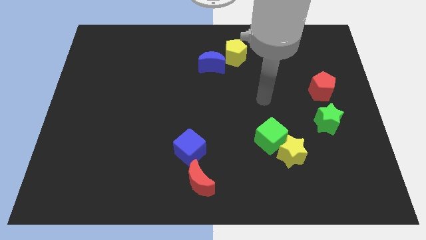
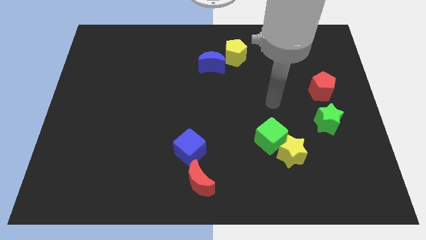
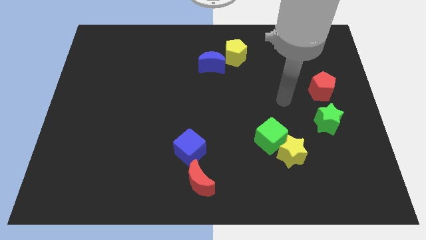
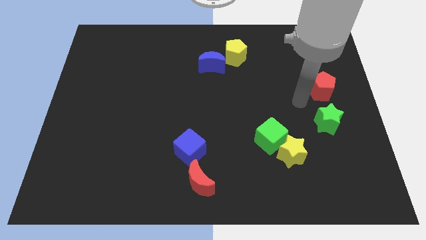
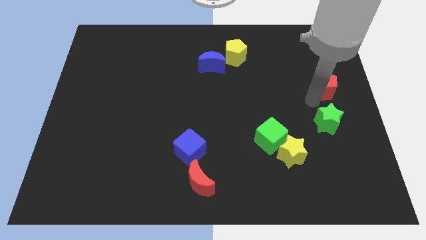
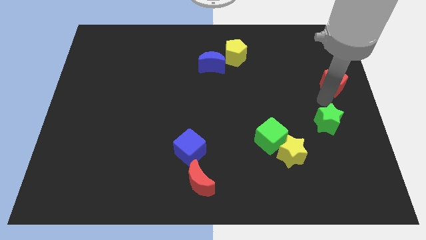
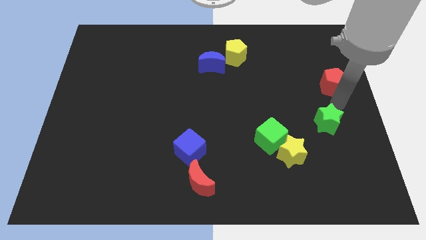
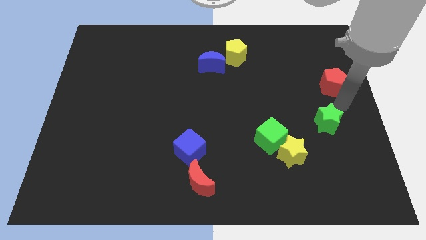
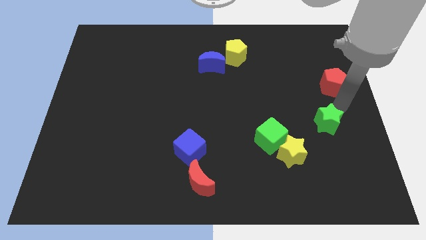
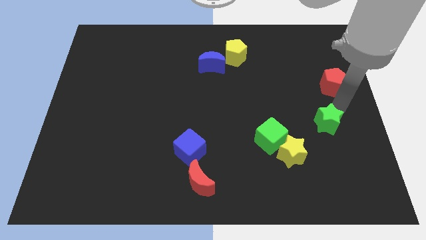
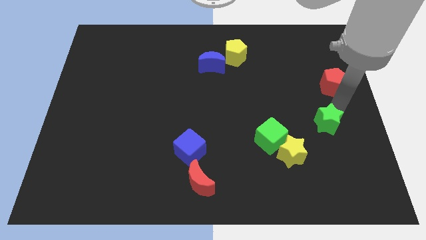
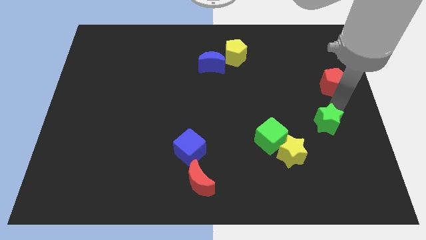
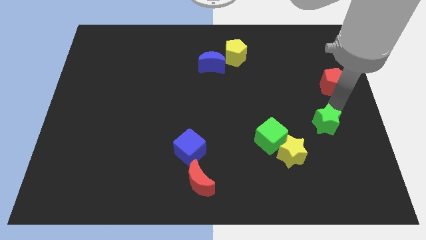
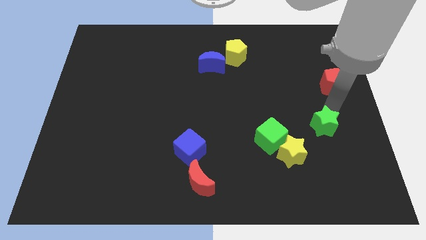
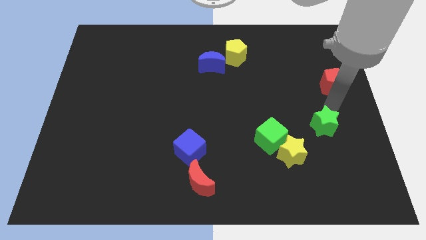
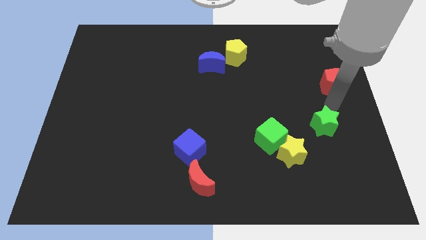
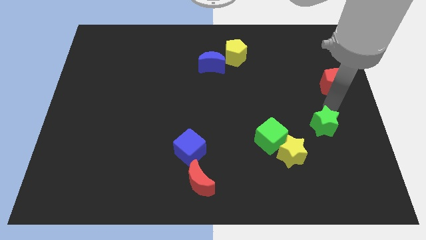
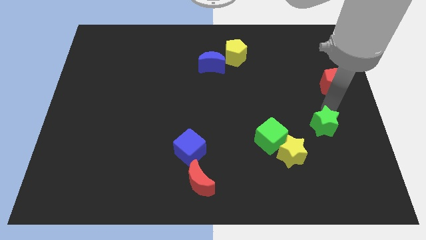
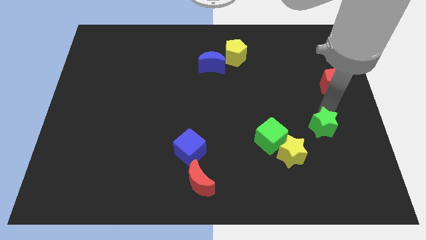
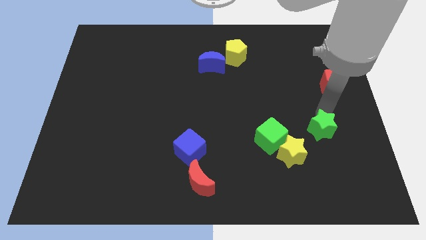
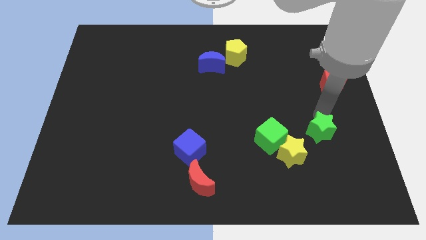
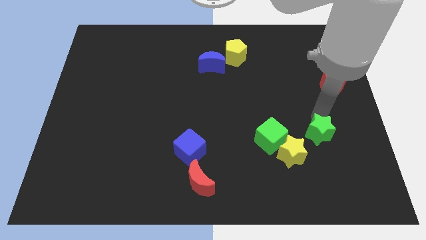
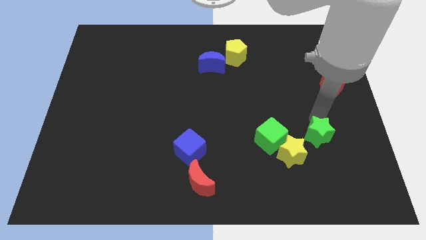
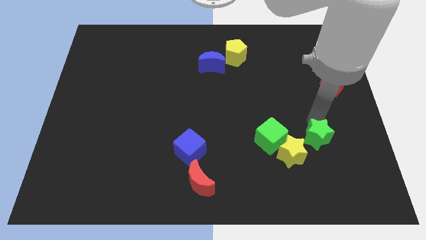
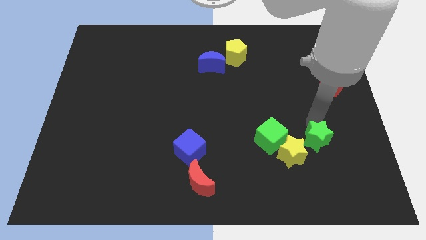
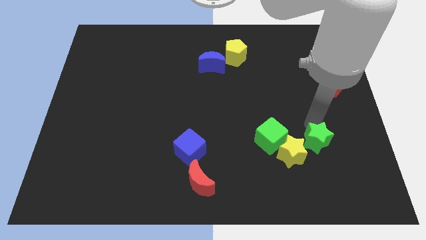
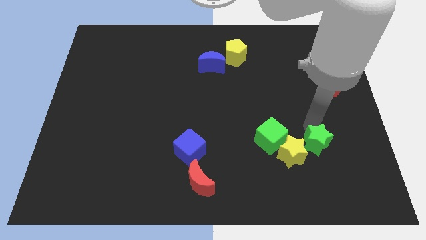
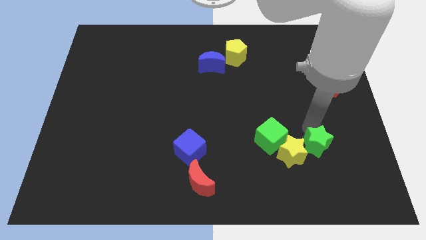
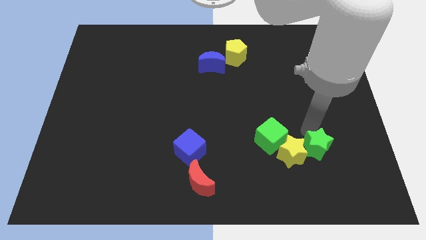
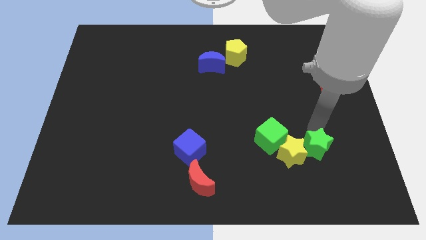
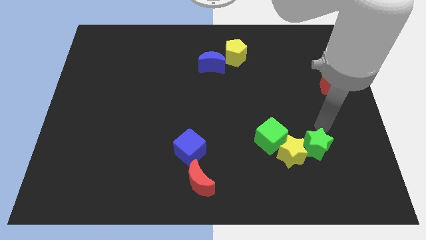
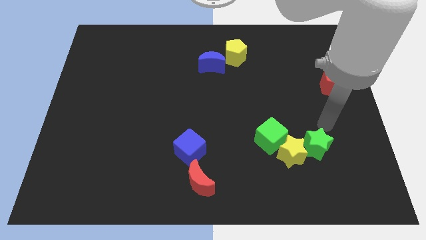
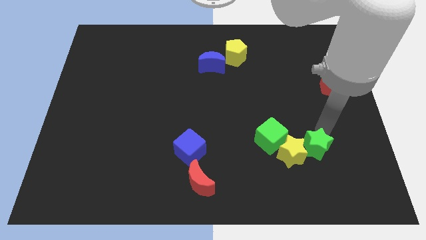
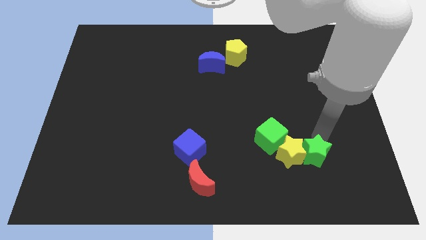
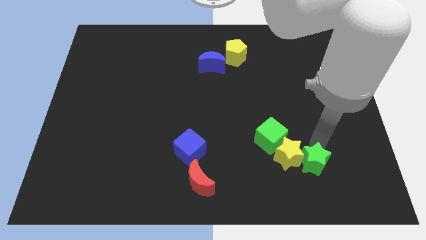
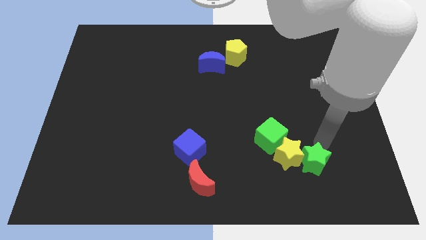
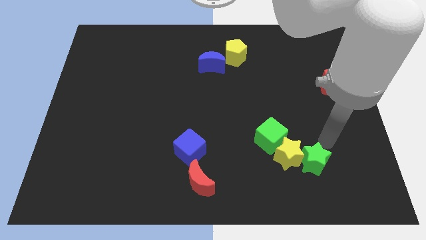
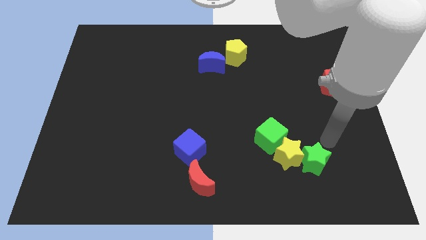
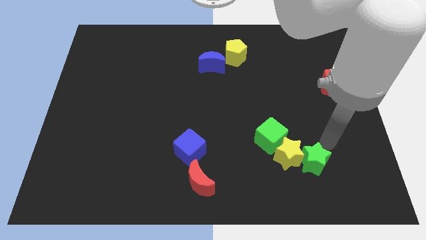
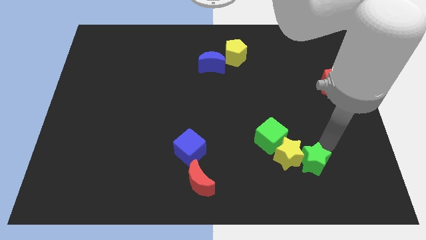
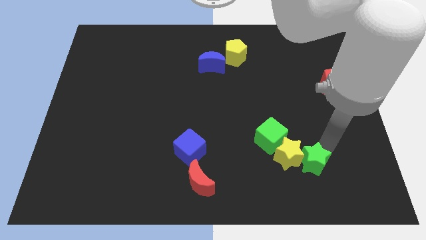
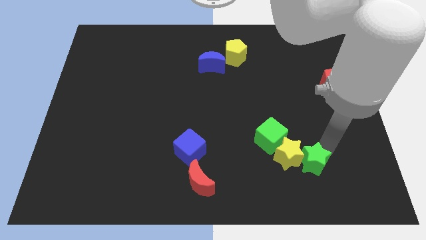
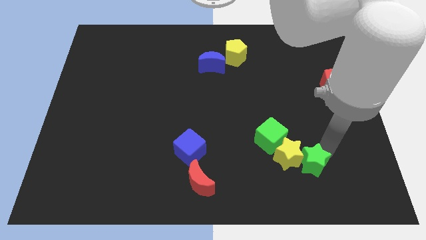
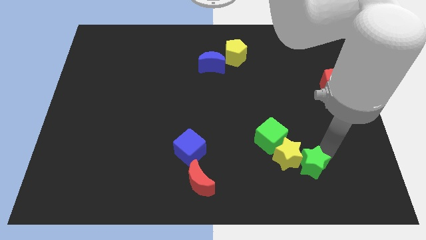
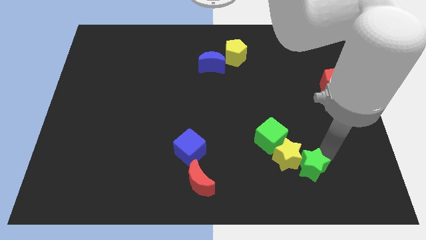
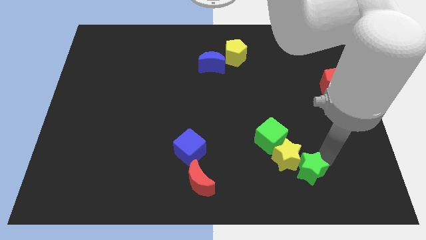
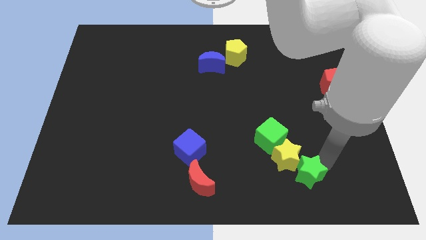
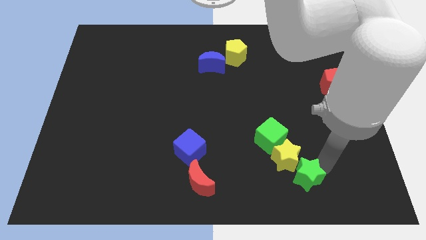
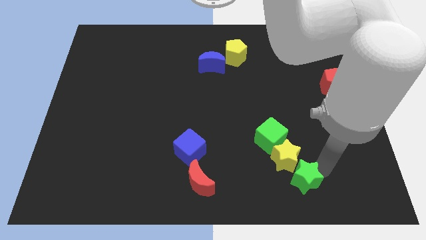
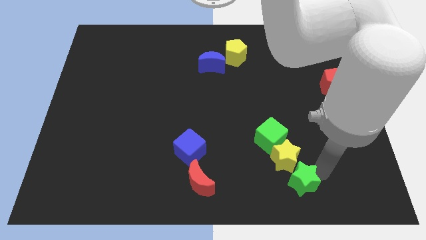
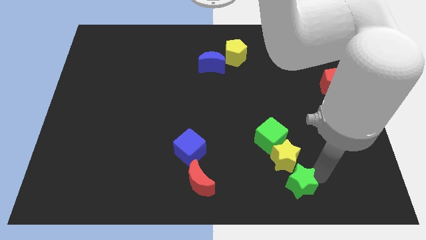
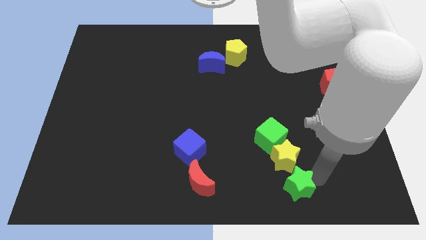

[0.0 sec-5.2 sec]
slide the green star below the green cube

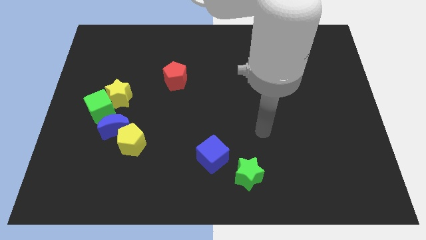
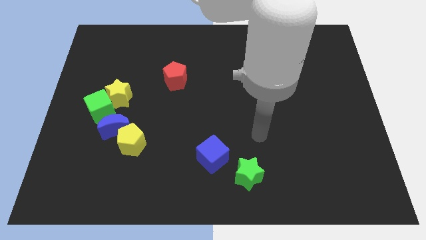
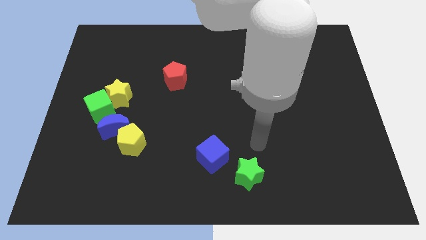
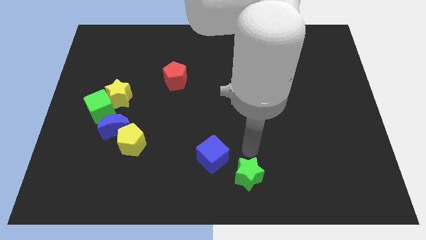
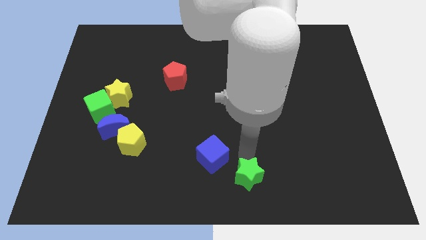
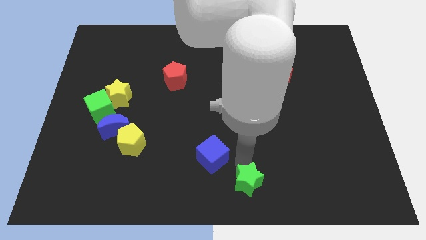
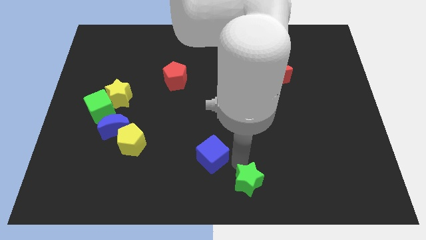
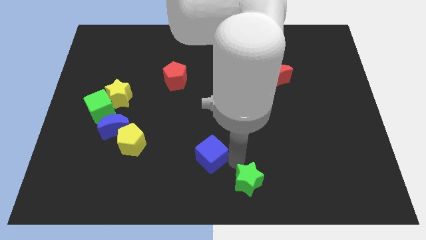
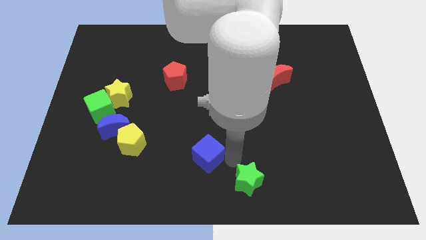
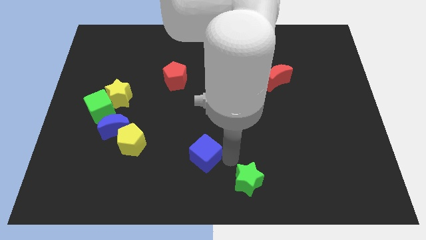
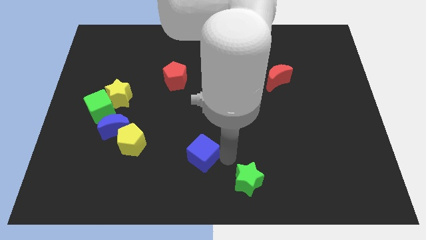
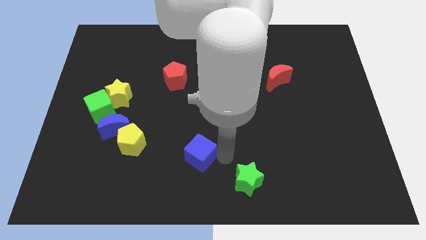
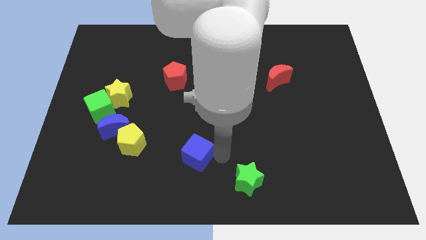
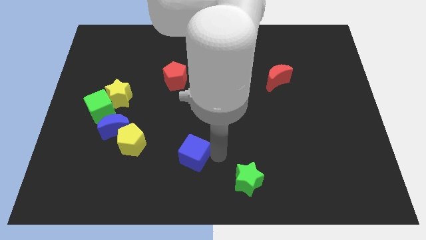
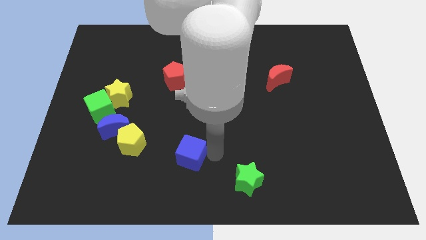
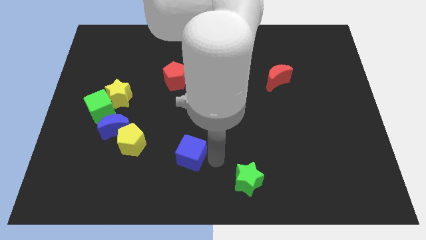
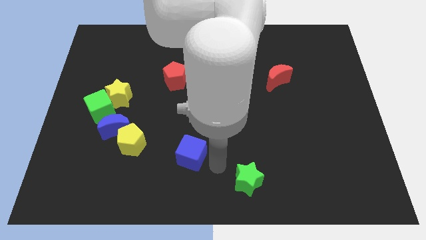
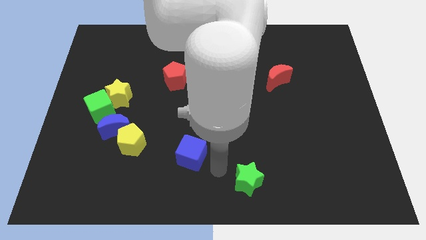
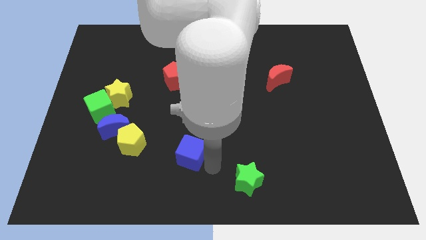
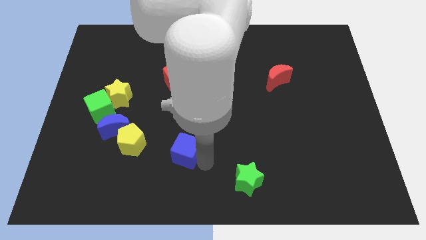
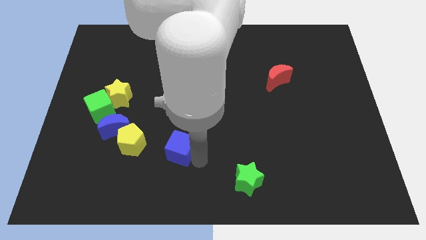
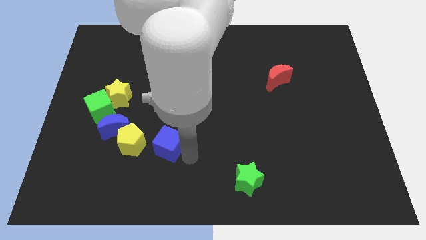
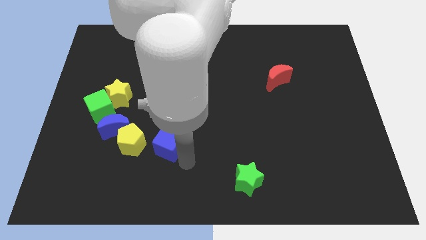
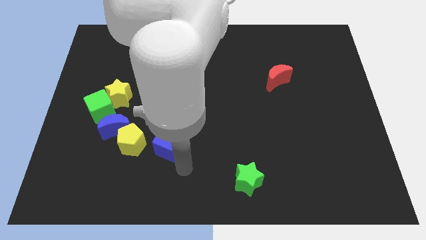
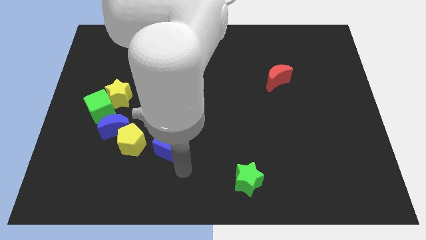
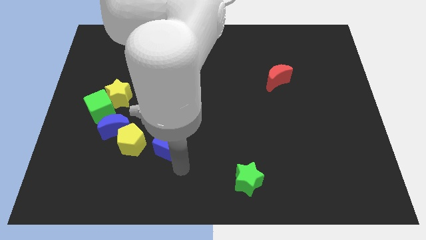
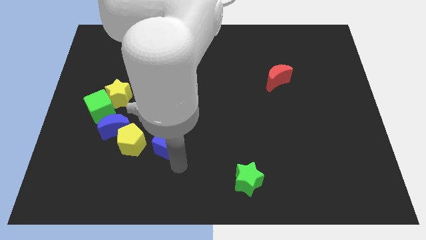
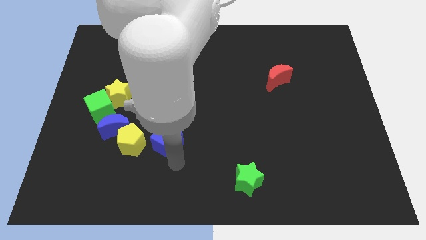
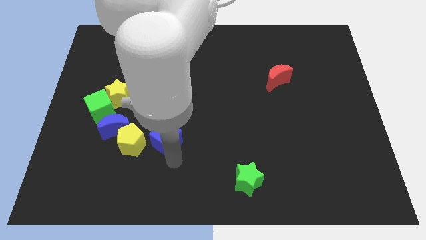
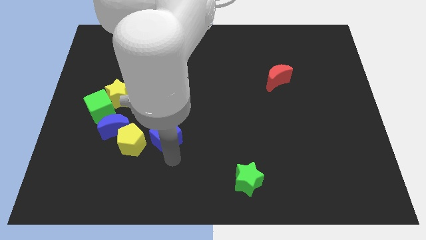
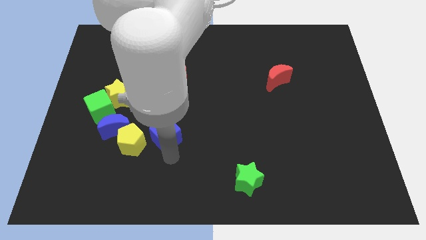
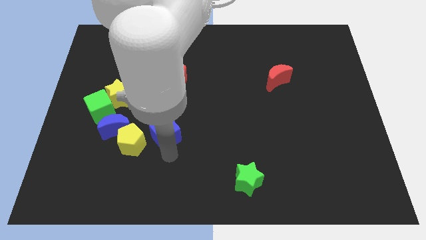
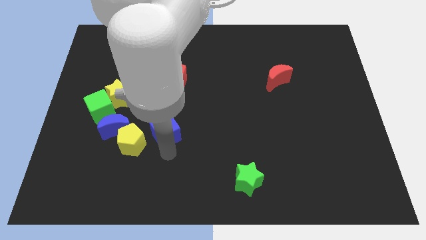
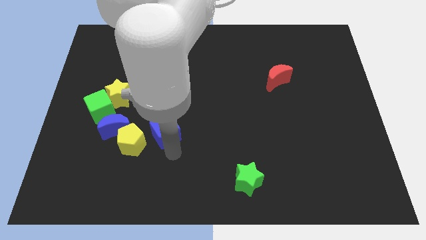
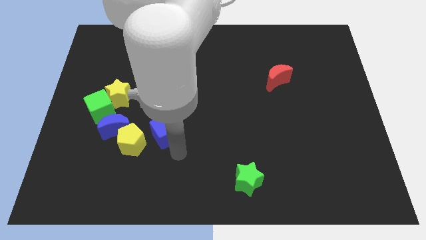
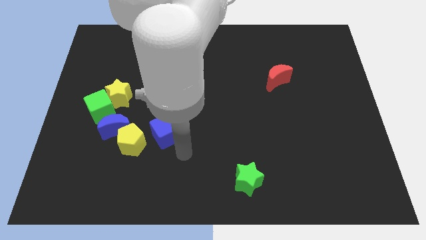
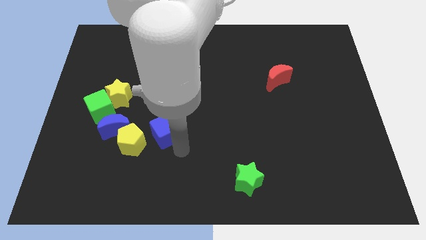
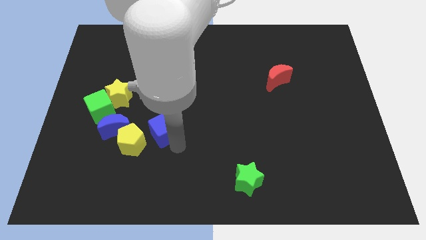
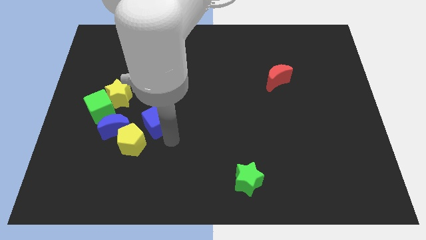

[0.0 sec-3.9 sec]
put the blue cube above the yellow pentagon
